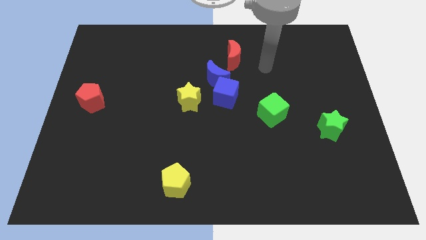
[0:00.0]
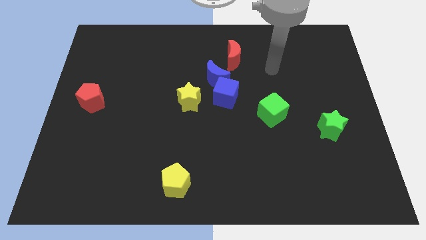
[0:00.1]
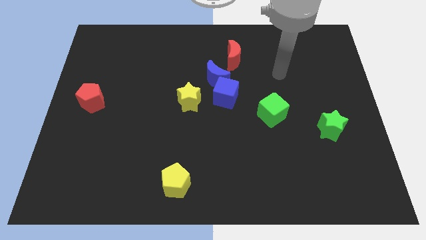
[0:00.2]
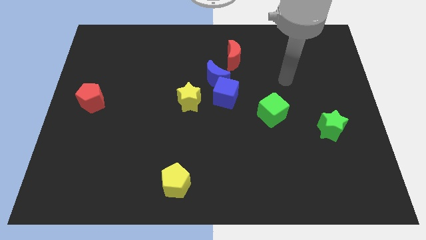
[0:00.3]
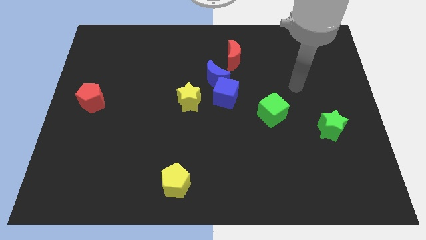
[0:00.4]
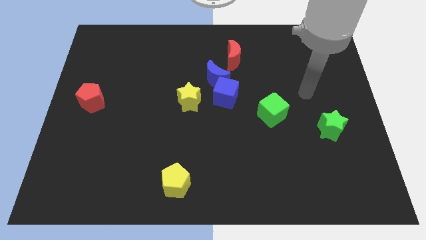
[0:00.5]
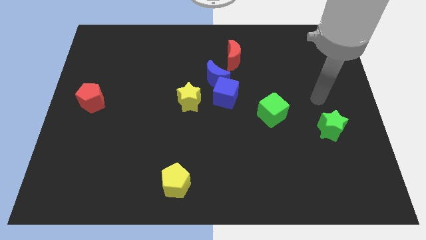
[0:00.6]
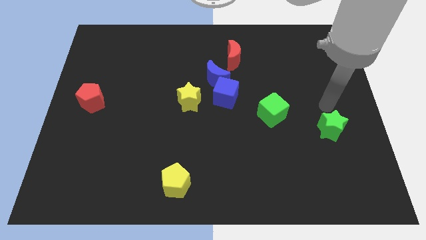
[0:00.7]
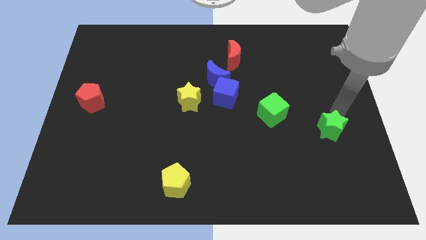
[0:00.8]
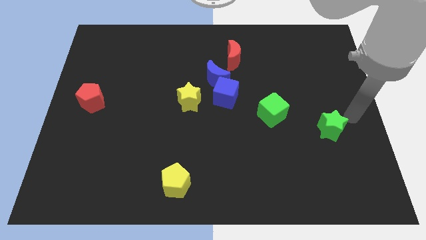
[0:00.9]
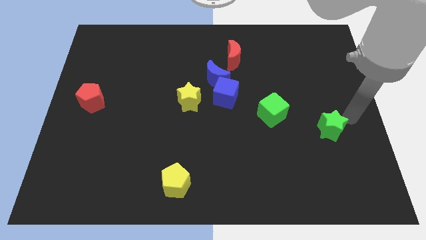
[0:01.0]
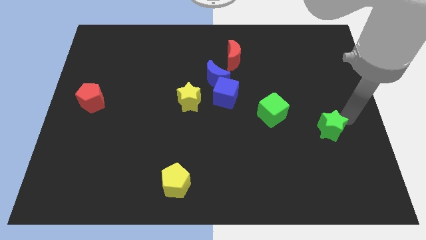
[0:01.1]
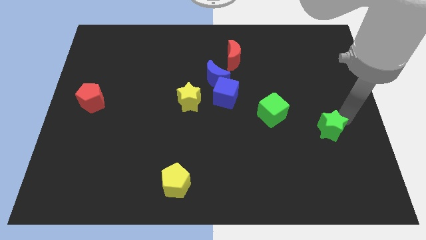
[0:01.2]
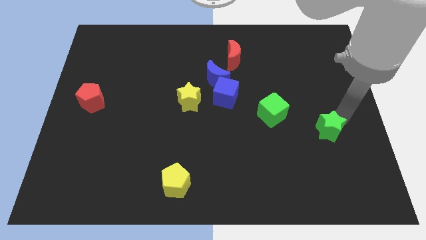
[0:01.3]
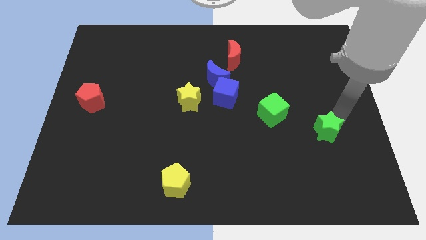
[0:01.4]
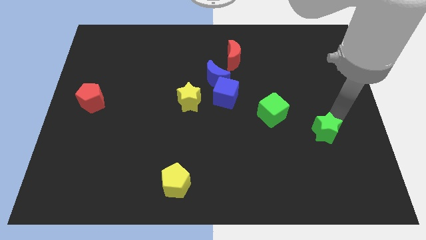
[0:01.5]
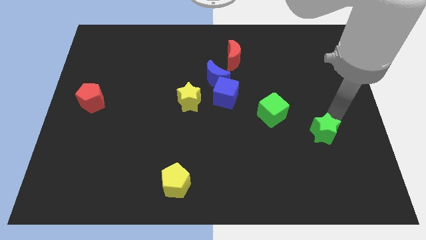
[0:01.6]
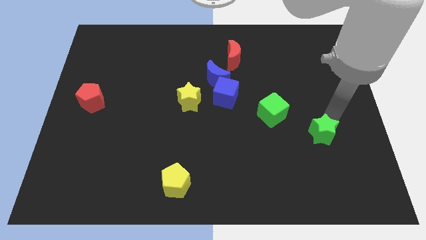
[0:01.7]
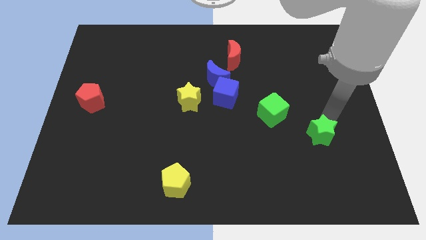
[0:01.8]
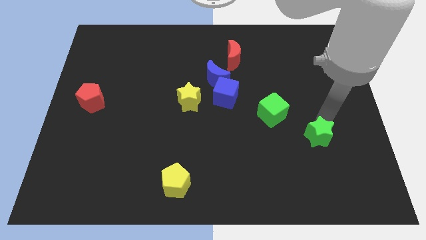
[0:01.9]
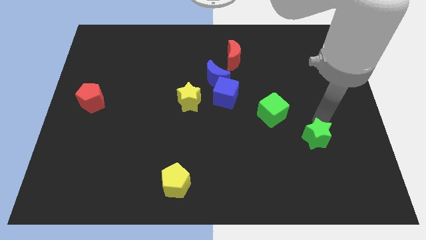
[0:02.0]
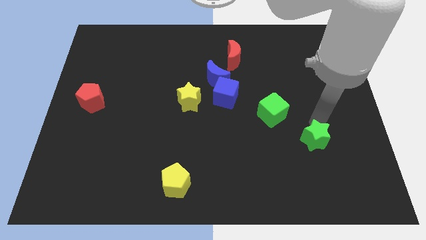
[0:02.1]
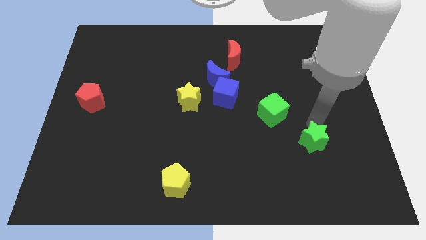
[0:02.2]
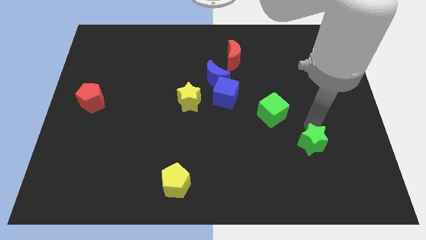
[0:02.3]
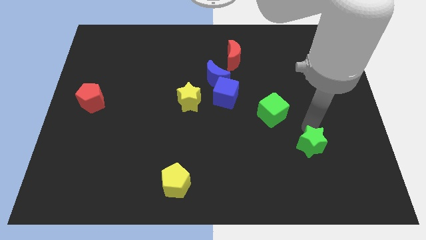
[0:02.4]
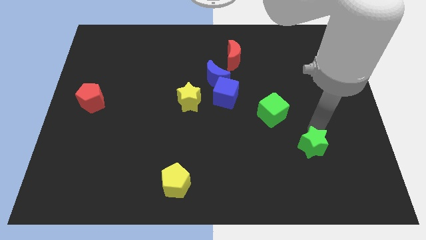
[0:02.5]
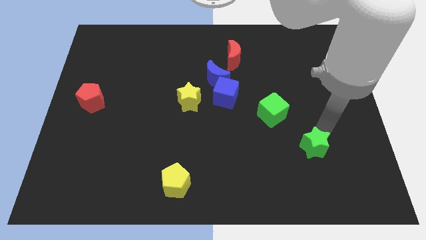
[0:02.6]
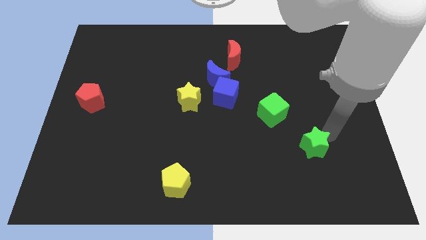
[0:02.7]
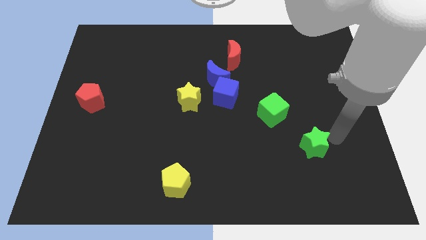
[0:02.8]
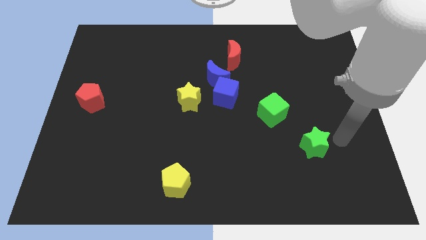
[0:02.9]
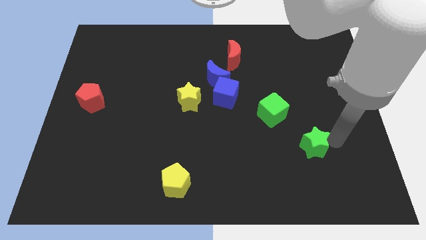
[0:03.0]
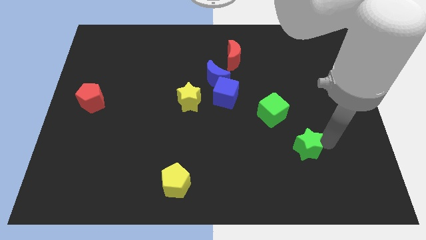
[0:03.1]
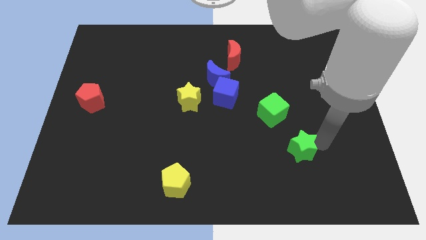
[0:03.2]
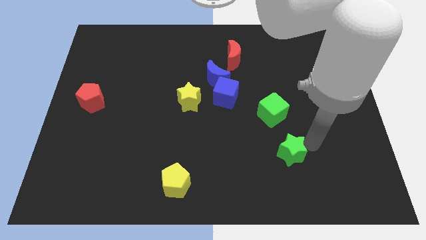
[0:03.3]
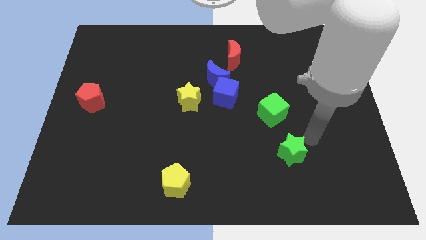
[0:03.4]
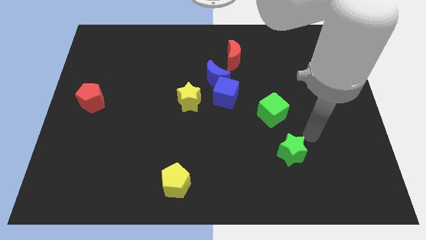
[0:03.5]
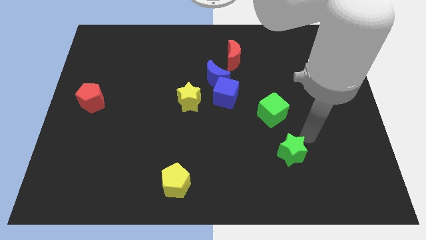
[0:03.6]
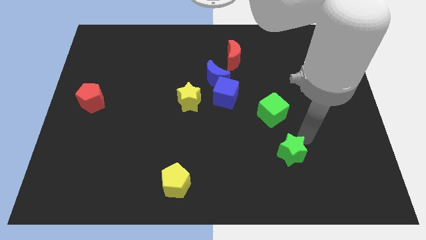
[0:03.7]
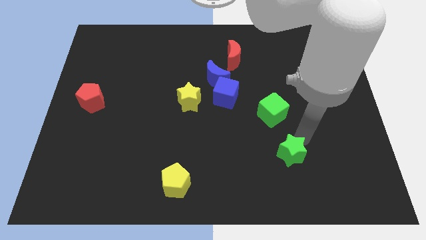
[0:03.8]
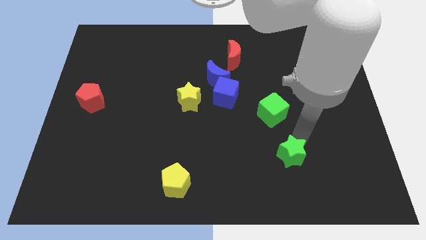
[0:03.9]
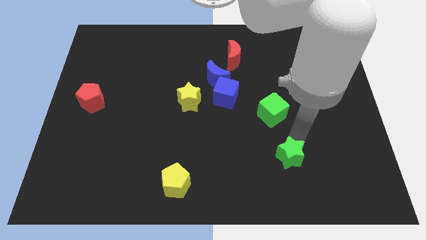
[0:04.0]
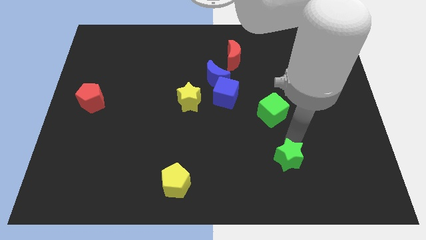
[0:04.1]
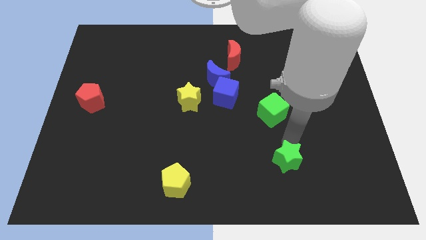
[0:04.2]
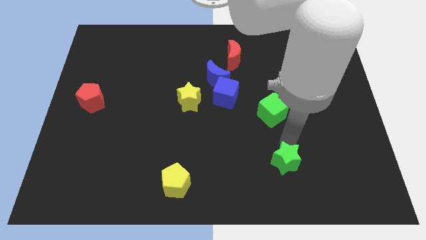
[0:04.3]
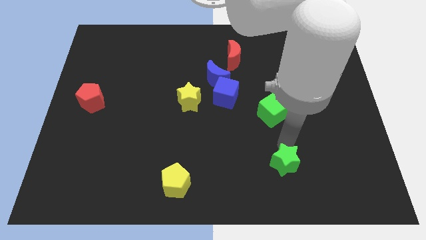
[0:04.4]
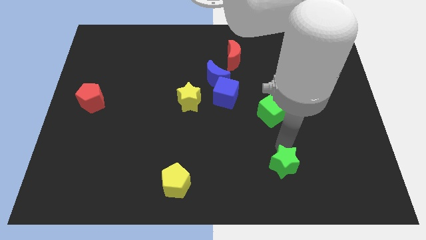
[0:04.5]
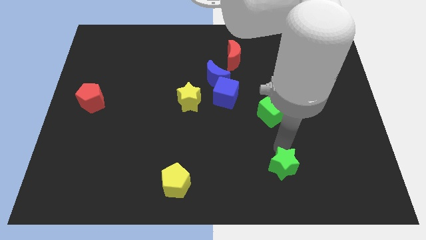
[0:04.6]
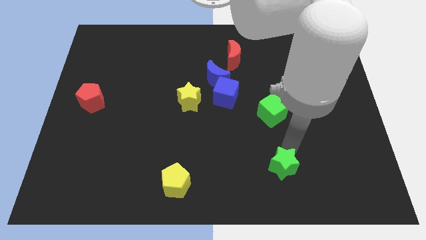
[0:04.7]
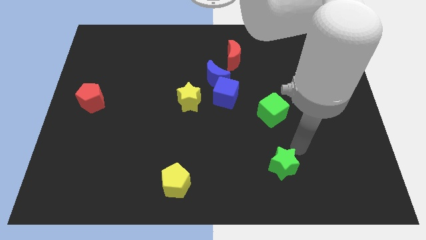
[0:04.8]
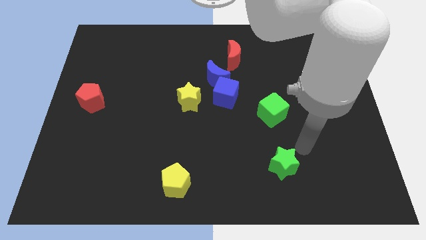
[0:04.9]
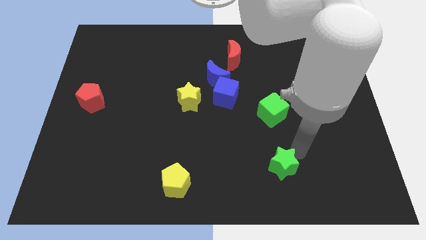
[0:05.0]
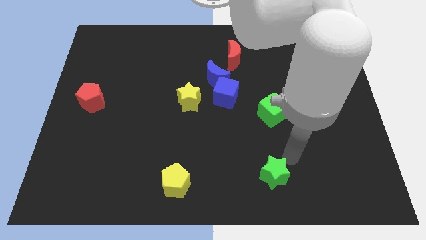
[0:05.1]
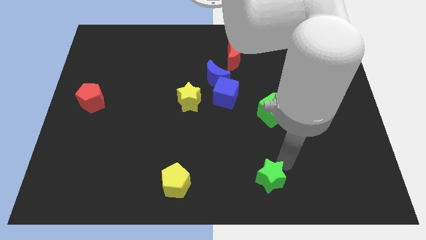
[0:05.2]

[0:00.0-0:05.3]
slide the green star to the bottom

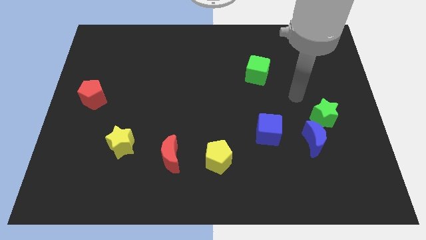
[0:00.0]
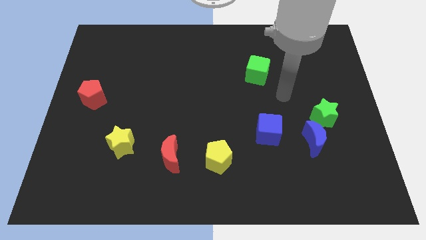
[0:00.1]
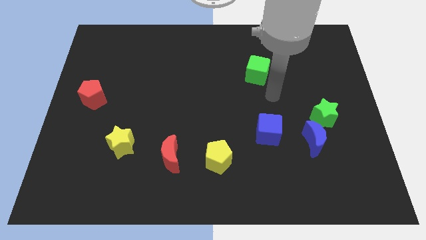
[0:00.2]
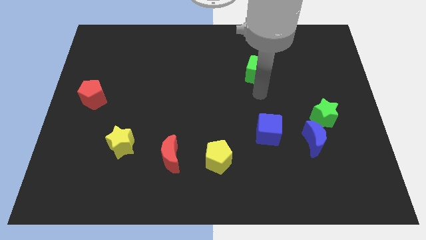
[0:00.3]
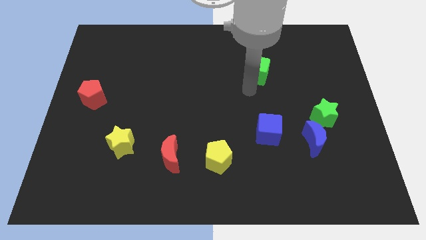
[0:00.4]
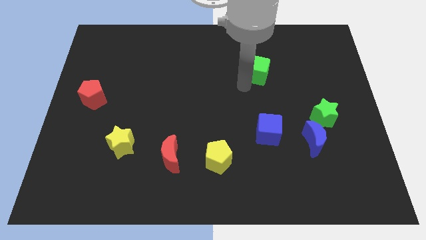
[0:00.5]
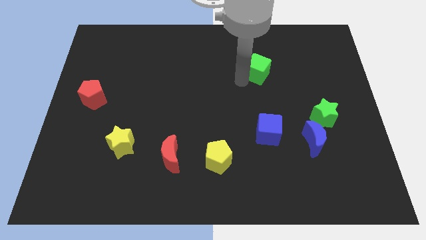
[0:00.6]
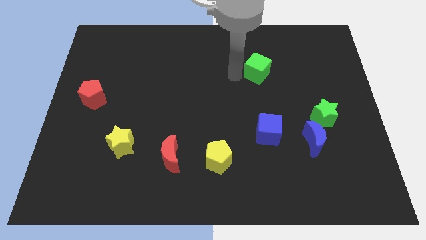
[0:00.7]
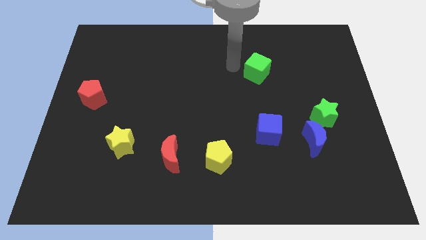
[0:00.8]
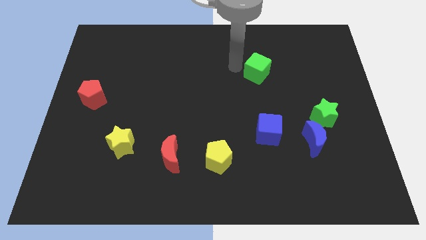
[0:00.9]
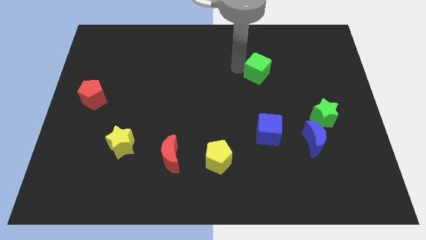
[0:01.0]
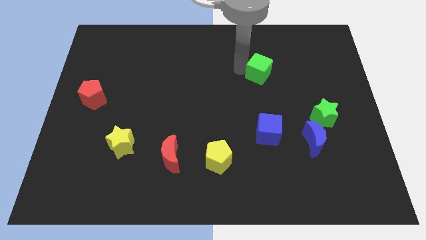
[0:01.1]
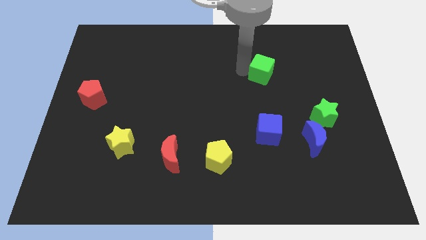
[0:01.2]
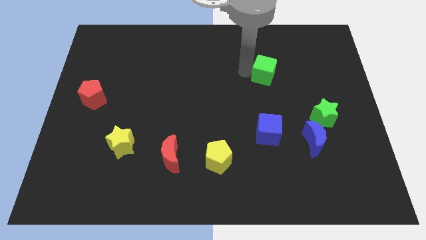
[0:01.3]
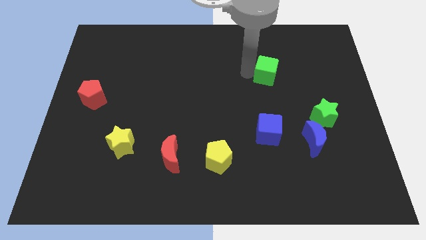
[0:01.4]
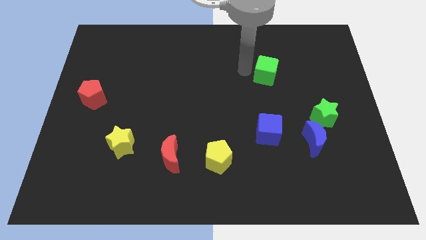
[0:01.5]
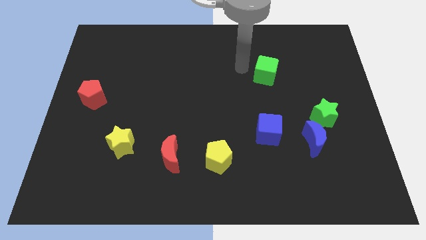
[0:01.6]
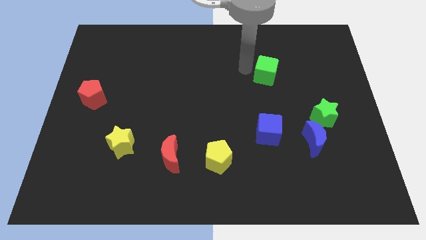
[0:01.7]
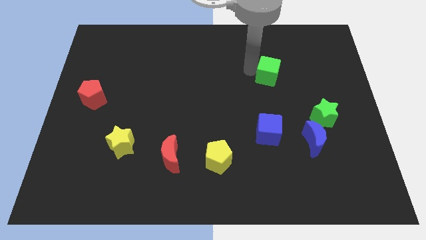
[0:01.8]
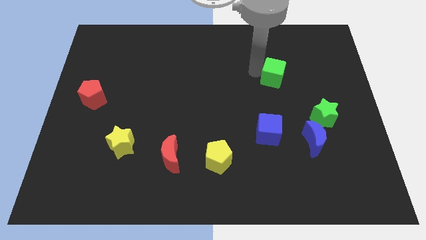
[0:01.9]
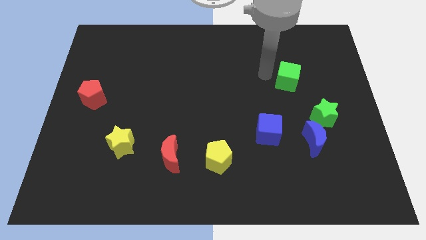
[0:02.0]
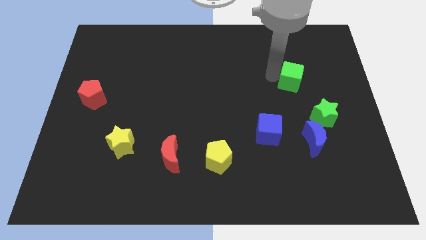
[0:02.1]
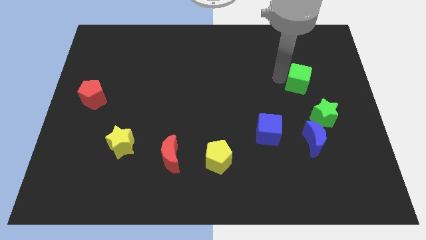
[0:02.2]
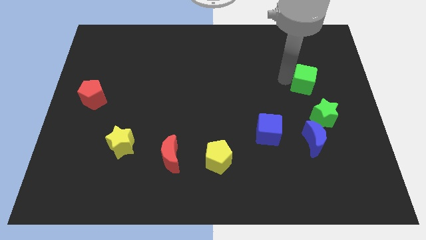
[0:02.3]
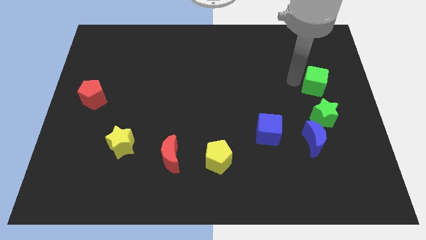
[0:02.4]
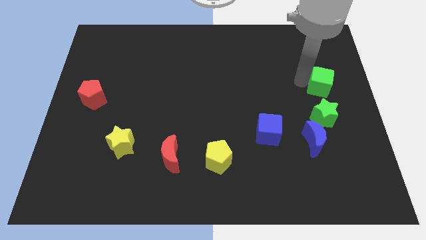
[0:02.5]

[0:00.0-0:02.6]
put the green cube to the right side

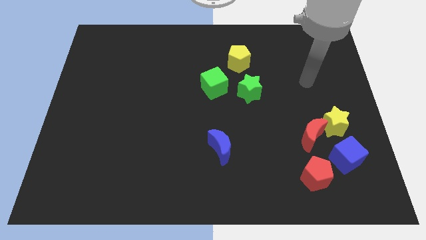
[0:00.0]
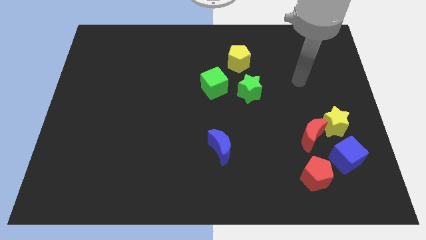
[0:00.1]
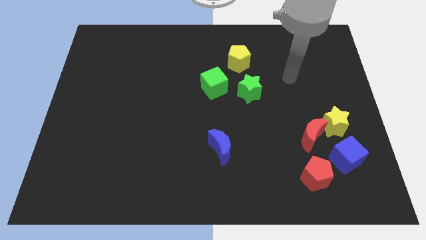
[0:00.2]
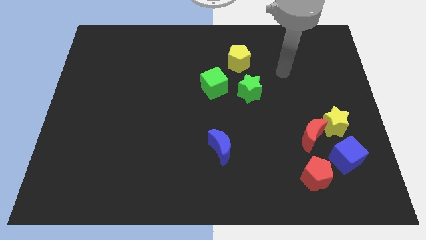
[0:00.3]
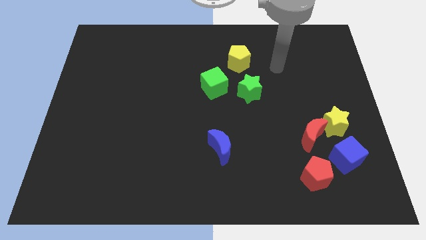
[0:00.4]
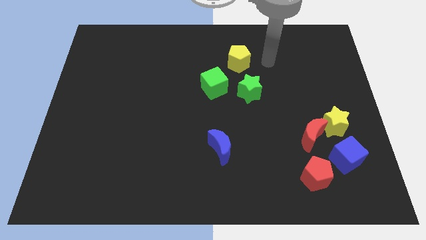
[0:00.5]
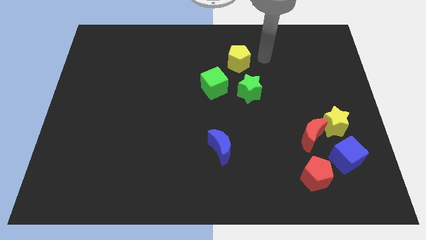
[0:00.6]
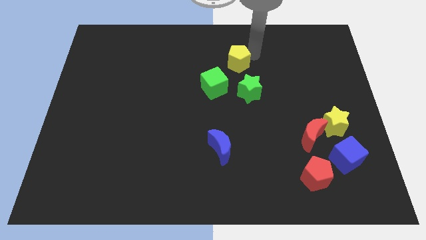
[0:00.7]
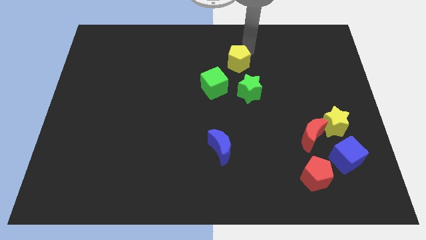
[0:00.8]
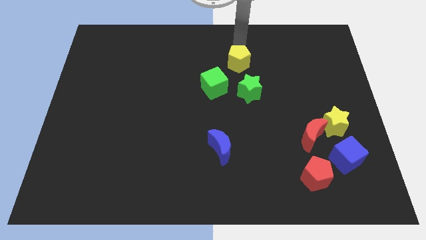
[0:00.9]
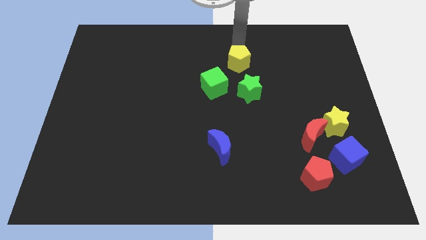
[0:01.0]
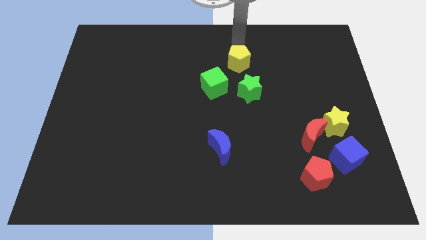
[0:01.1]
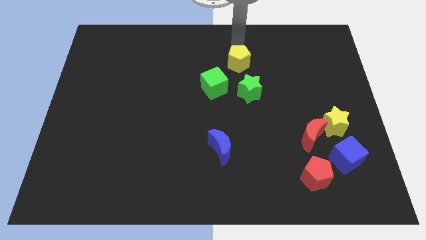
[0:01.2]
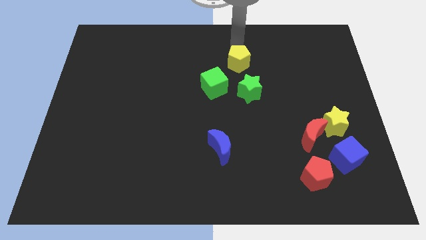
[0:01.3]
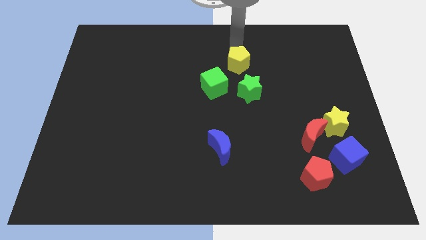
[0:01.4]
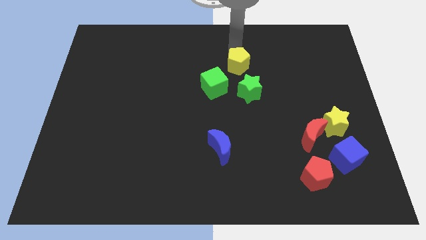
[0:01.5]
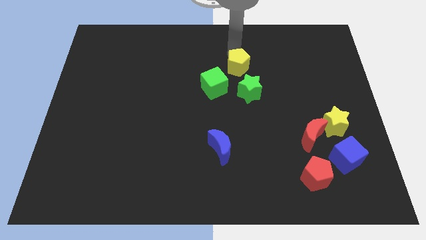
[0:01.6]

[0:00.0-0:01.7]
push the yellow pentagon to the middle
